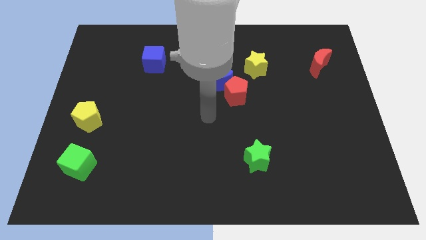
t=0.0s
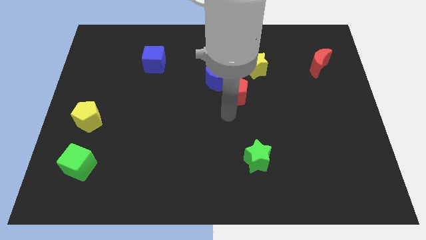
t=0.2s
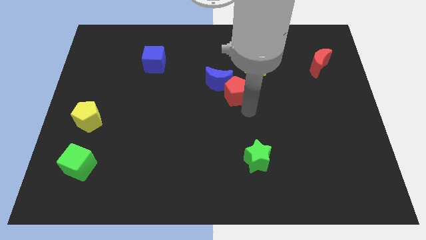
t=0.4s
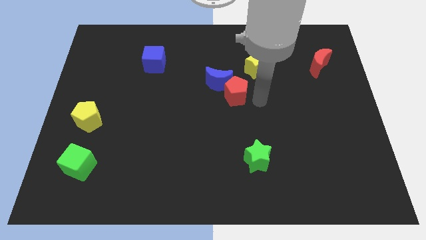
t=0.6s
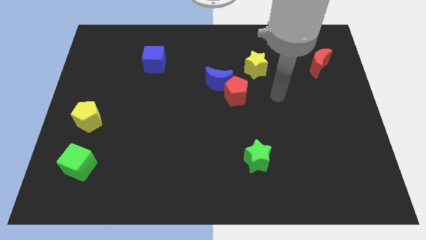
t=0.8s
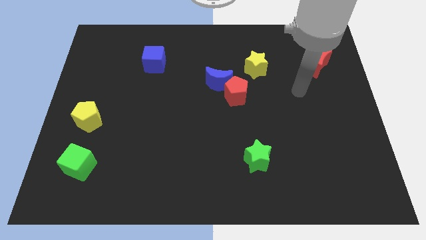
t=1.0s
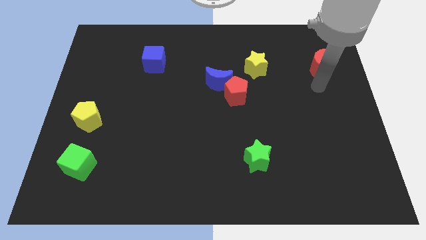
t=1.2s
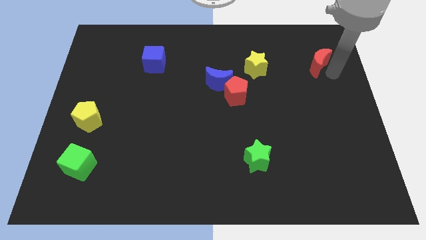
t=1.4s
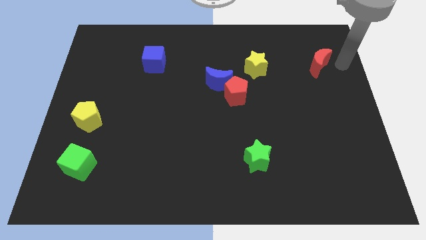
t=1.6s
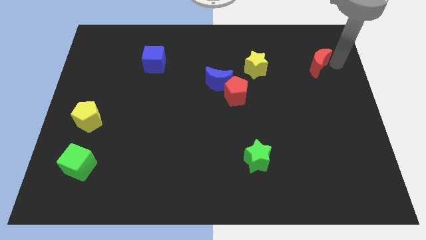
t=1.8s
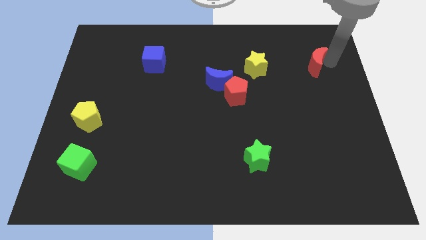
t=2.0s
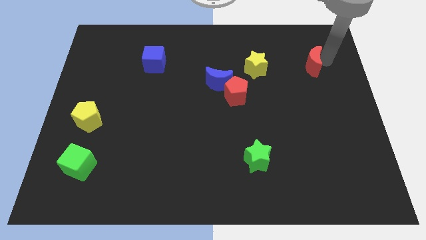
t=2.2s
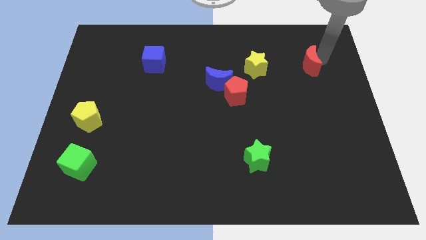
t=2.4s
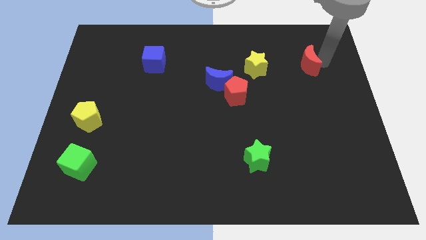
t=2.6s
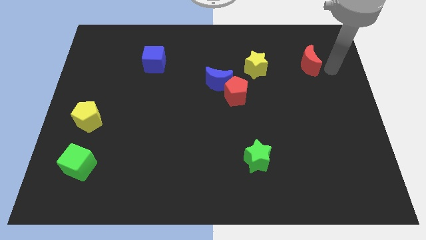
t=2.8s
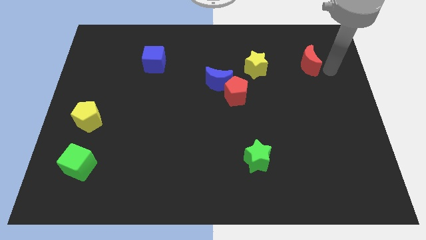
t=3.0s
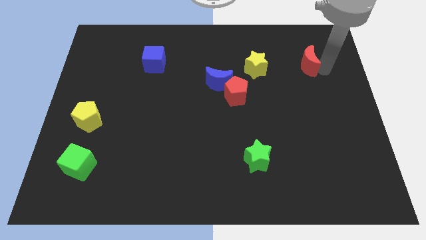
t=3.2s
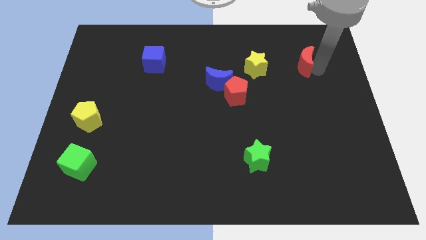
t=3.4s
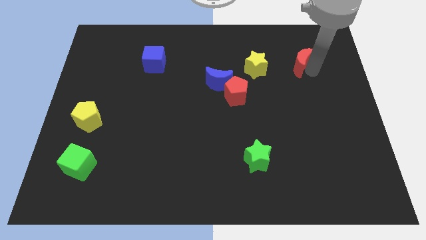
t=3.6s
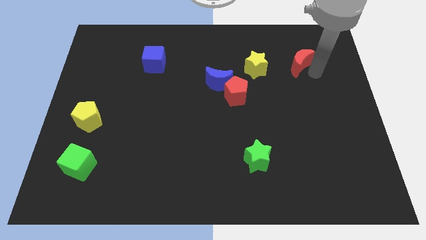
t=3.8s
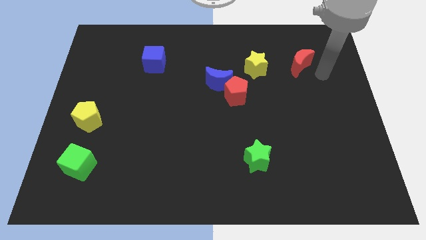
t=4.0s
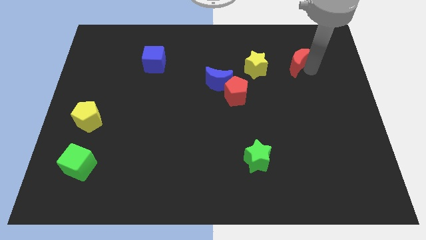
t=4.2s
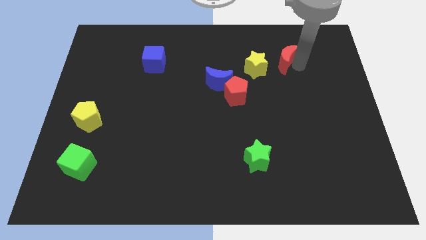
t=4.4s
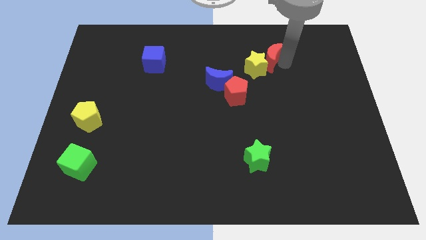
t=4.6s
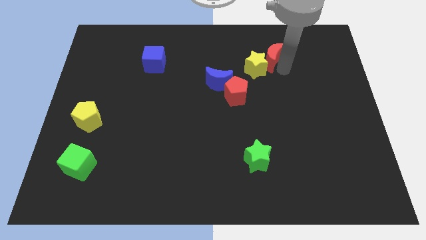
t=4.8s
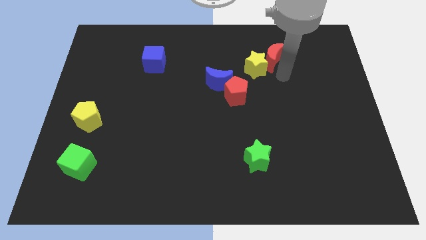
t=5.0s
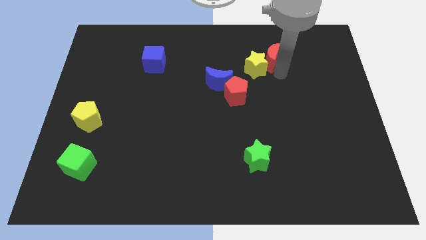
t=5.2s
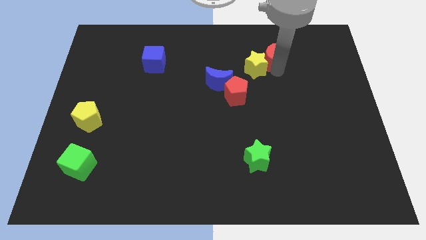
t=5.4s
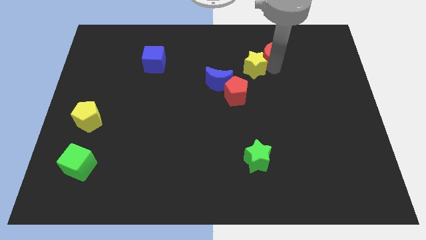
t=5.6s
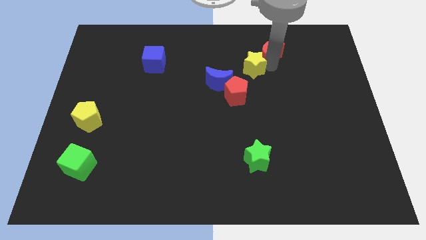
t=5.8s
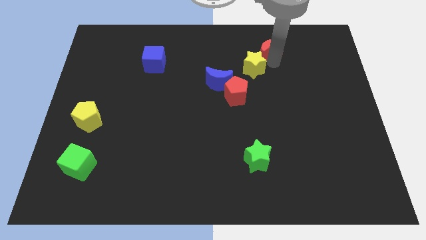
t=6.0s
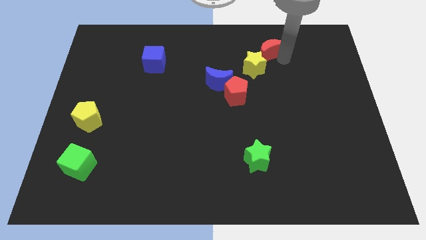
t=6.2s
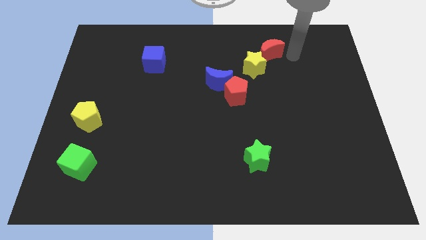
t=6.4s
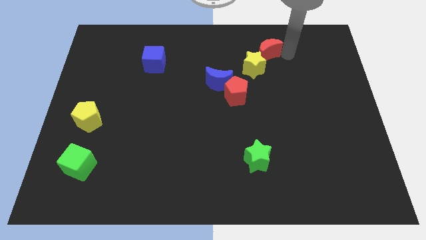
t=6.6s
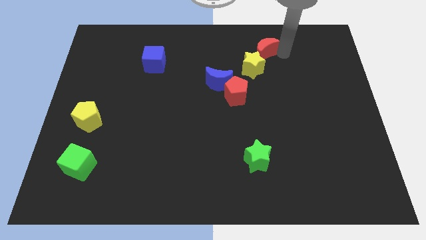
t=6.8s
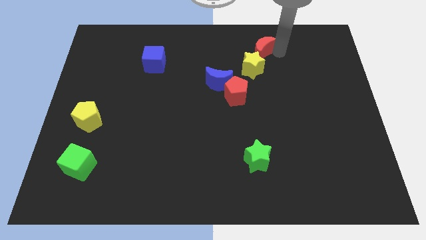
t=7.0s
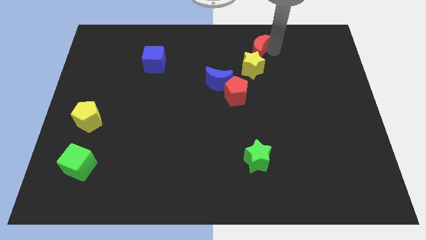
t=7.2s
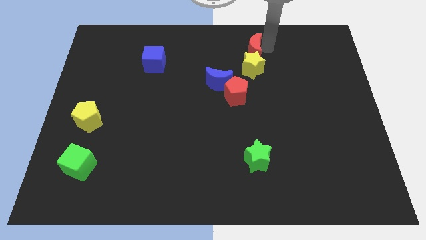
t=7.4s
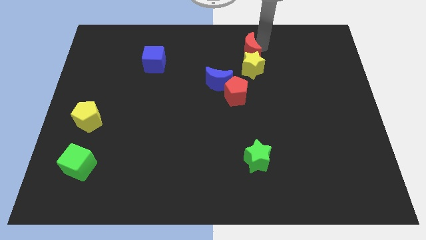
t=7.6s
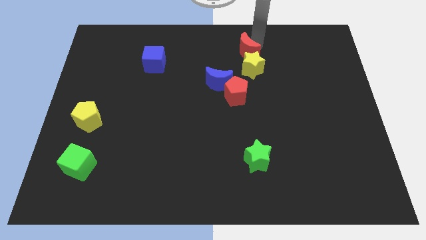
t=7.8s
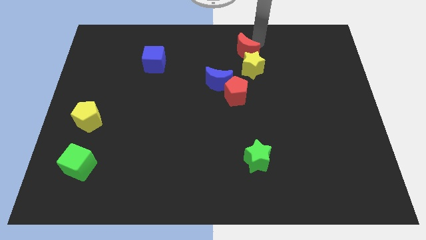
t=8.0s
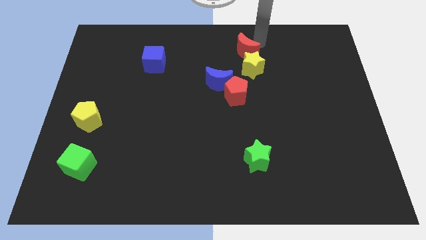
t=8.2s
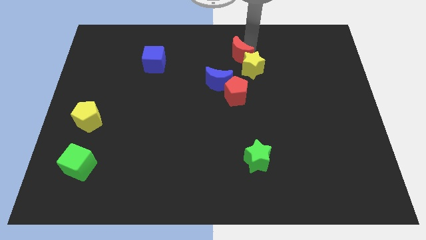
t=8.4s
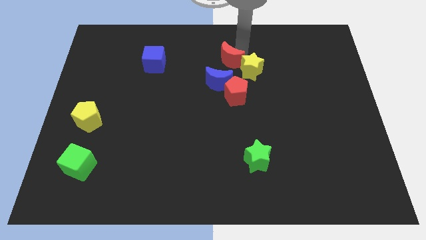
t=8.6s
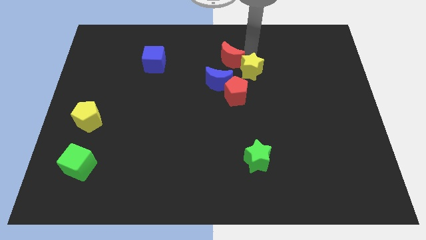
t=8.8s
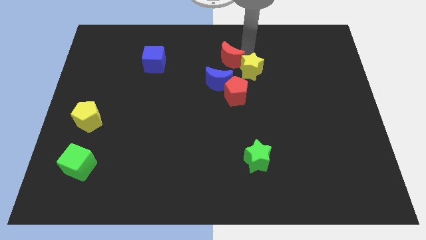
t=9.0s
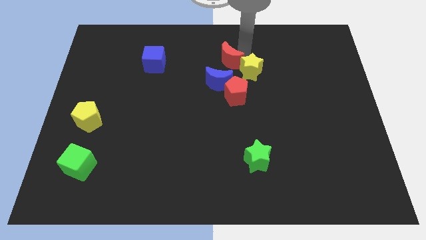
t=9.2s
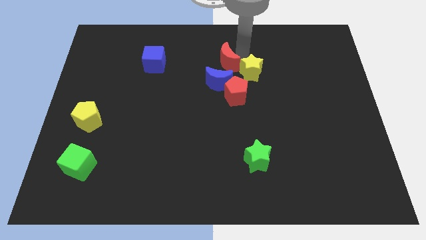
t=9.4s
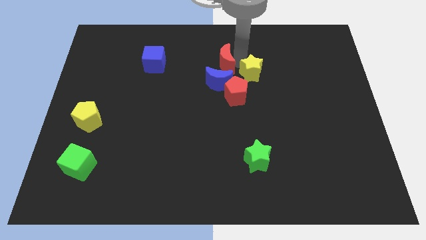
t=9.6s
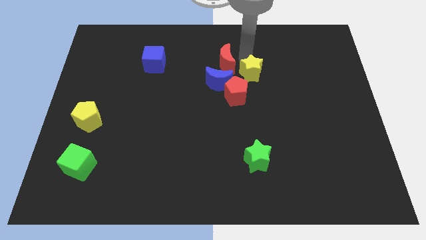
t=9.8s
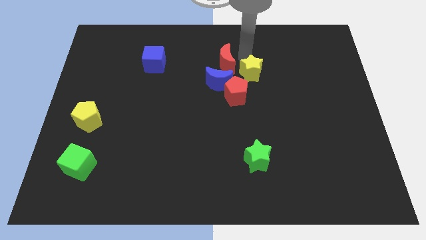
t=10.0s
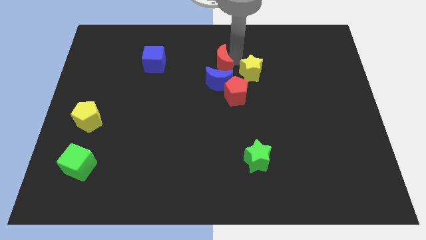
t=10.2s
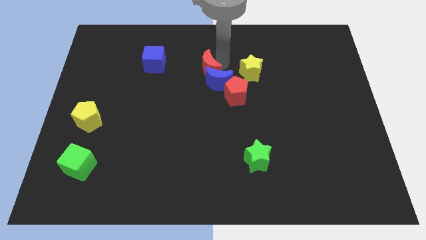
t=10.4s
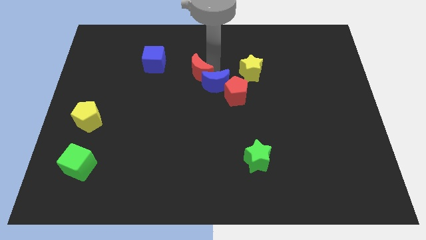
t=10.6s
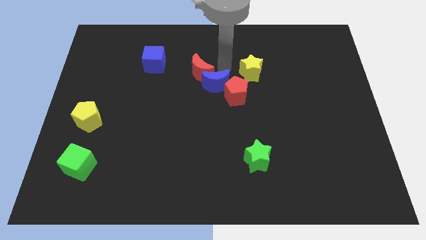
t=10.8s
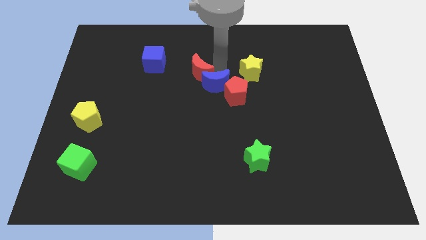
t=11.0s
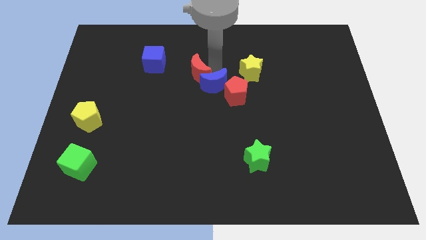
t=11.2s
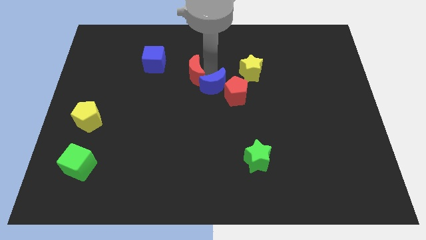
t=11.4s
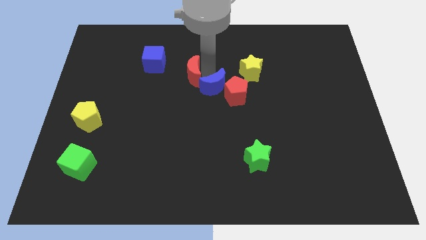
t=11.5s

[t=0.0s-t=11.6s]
slide the red moon diagonally down and to the right of the blue cube

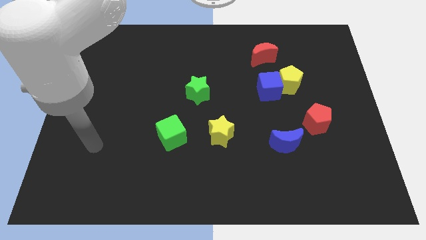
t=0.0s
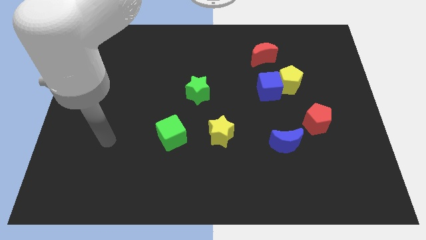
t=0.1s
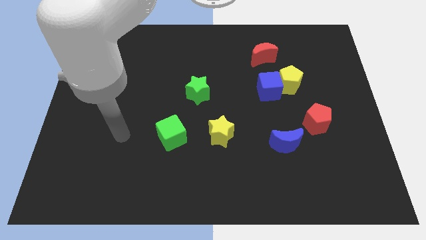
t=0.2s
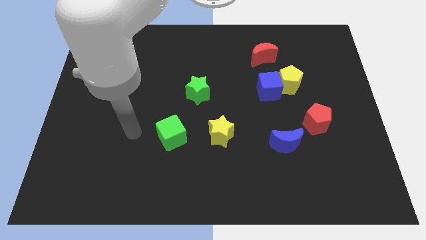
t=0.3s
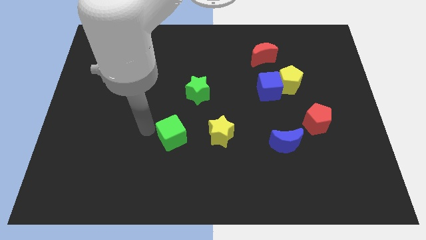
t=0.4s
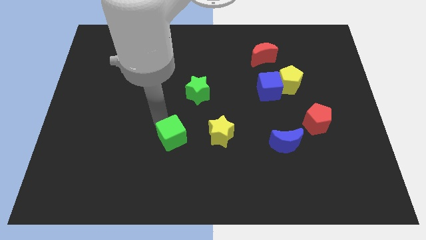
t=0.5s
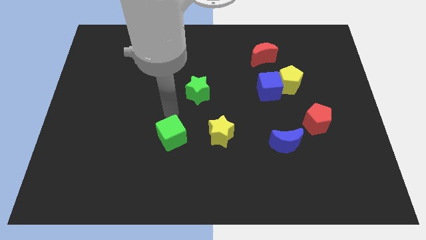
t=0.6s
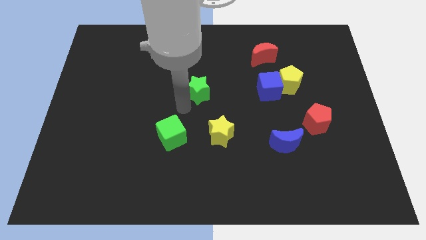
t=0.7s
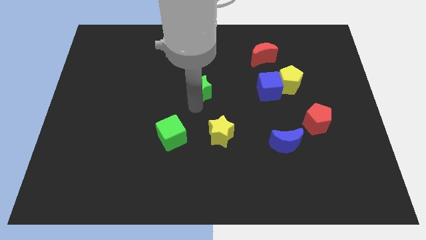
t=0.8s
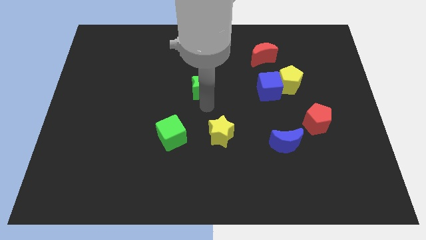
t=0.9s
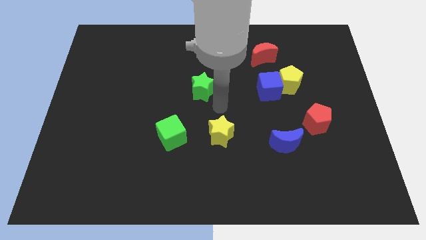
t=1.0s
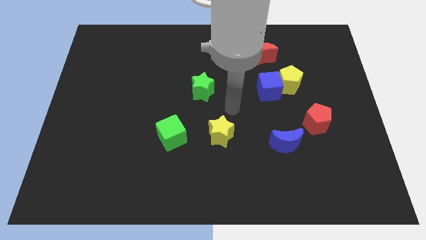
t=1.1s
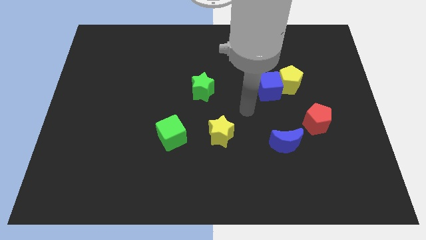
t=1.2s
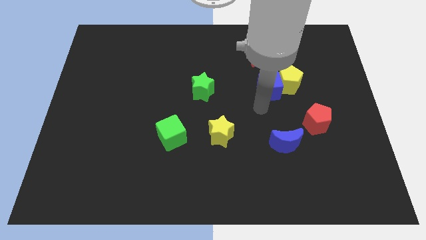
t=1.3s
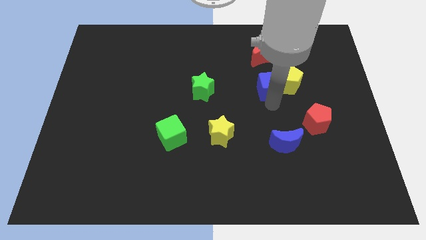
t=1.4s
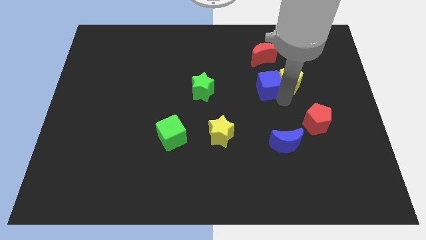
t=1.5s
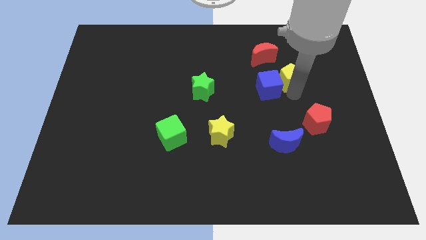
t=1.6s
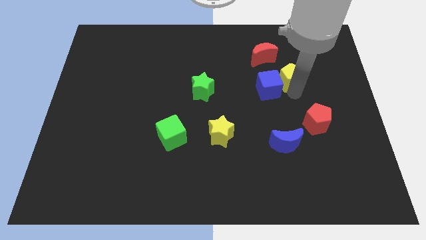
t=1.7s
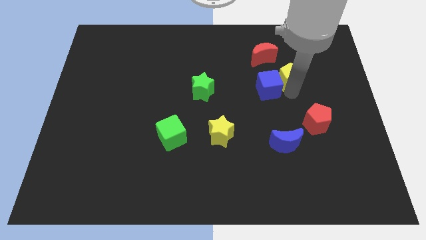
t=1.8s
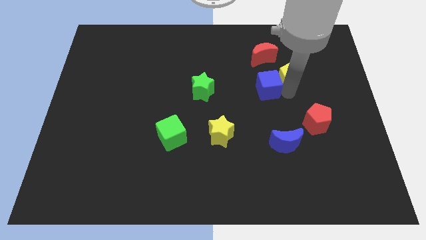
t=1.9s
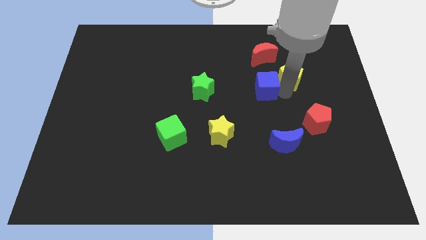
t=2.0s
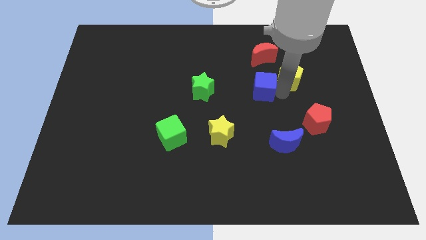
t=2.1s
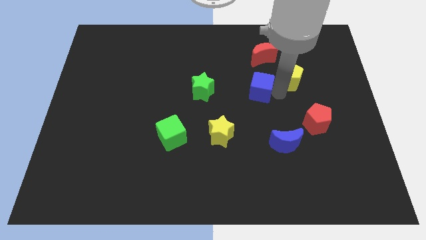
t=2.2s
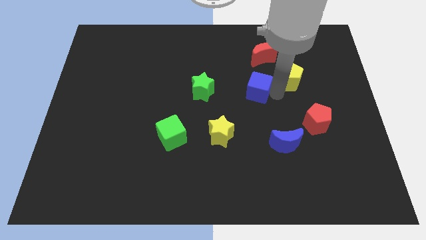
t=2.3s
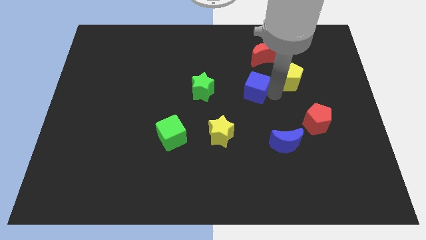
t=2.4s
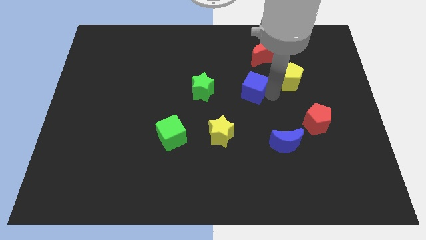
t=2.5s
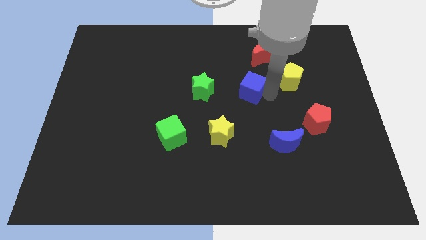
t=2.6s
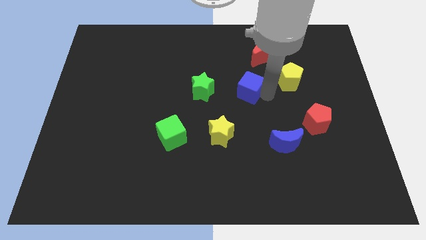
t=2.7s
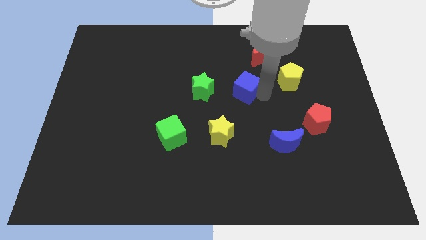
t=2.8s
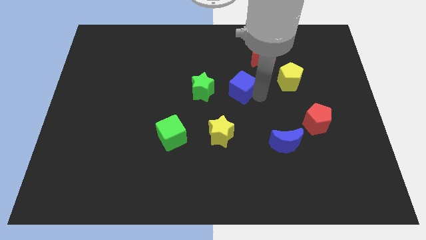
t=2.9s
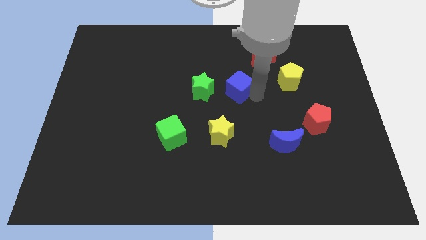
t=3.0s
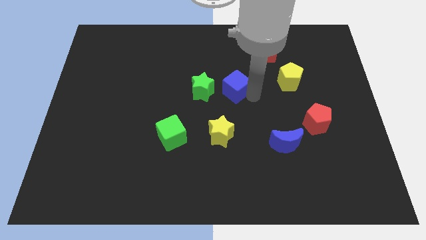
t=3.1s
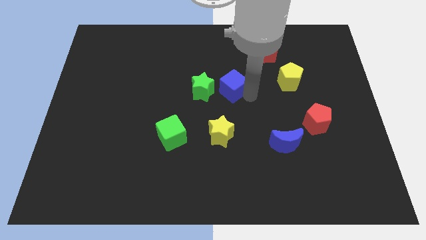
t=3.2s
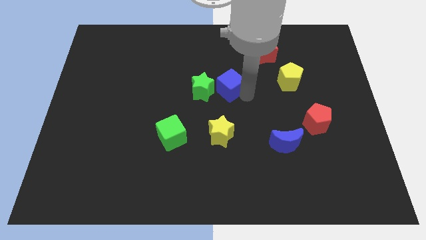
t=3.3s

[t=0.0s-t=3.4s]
put the blue cube to the top right of the green star
